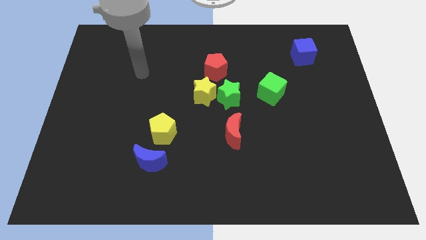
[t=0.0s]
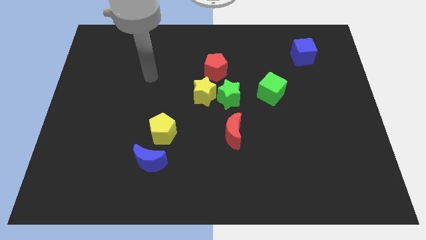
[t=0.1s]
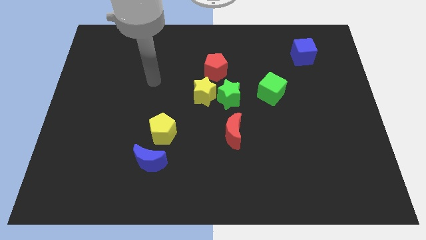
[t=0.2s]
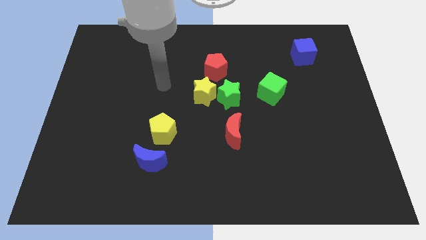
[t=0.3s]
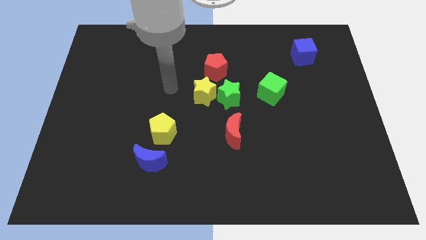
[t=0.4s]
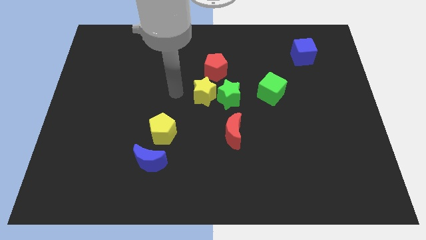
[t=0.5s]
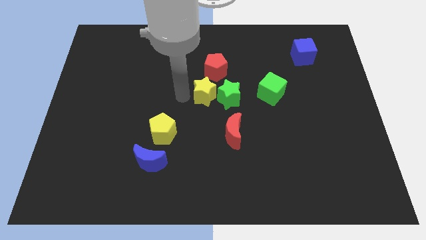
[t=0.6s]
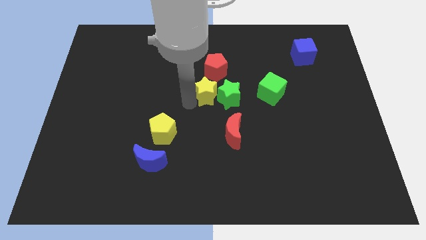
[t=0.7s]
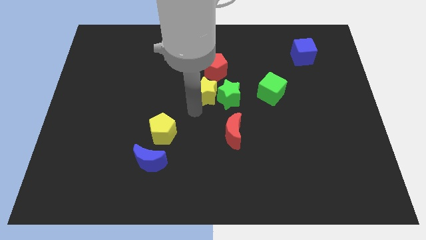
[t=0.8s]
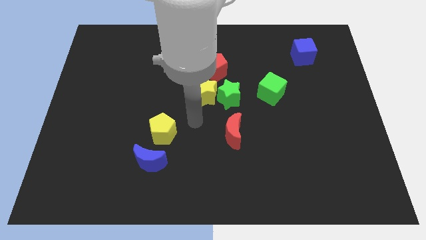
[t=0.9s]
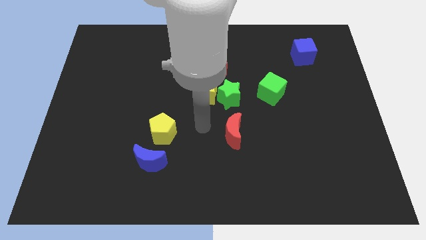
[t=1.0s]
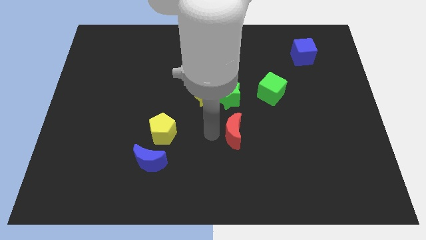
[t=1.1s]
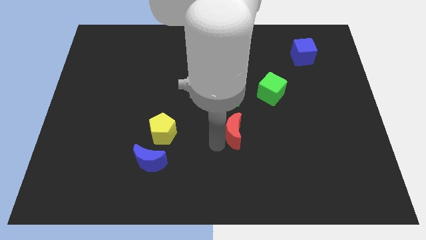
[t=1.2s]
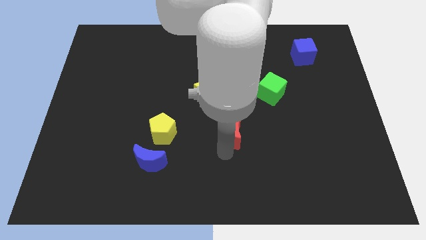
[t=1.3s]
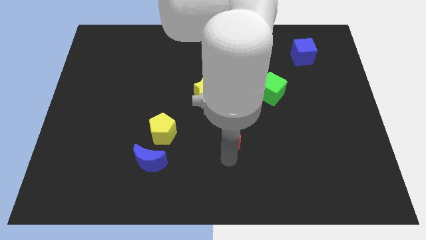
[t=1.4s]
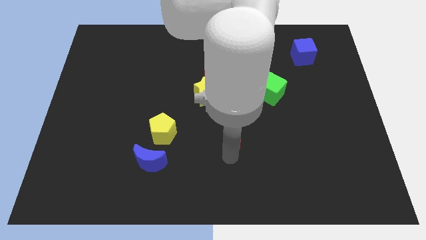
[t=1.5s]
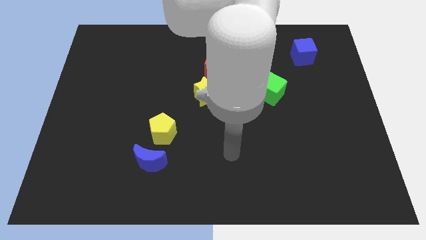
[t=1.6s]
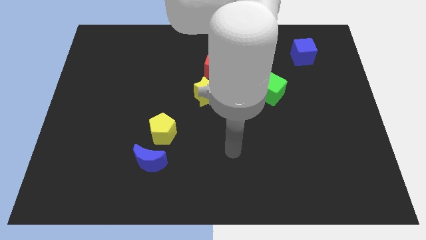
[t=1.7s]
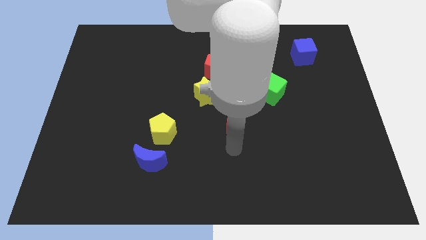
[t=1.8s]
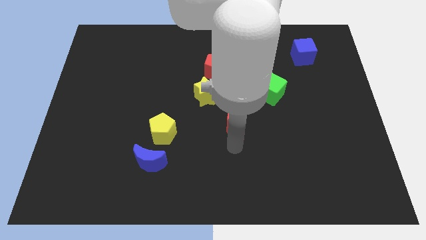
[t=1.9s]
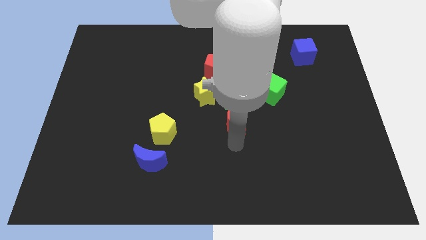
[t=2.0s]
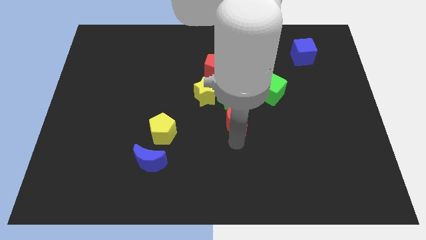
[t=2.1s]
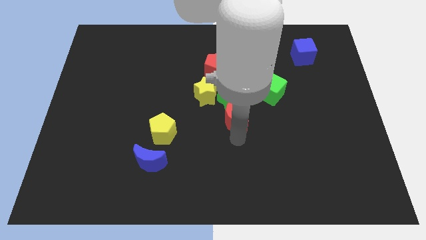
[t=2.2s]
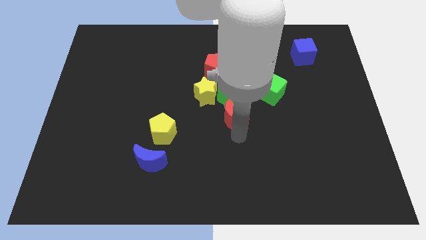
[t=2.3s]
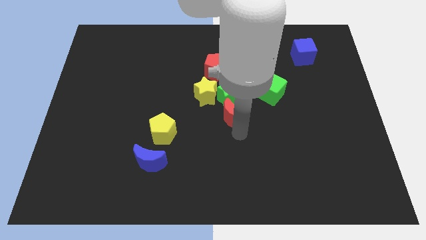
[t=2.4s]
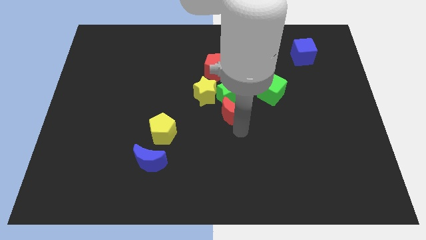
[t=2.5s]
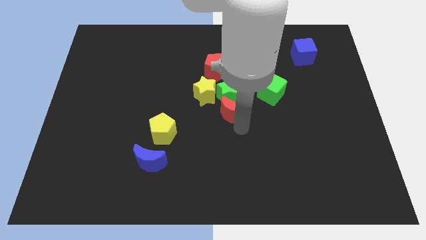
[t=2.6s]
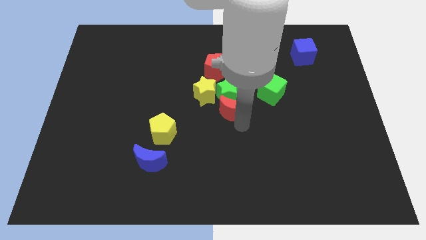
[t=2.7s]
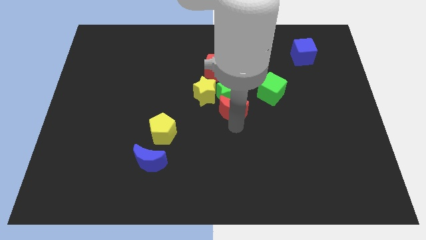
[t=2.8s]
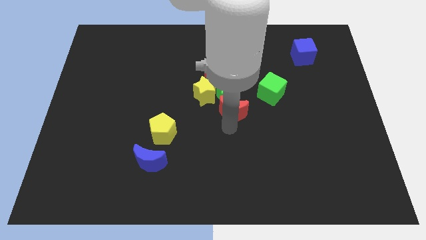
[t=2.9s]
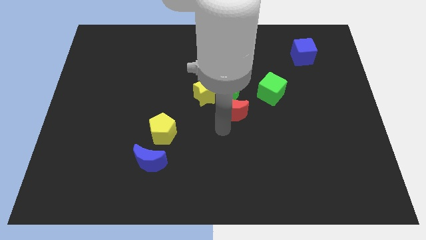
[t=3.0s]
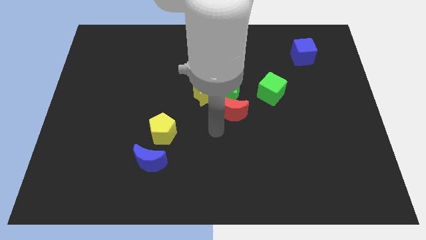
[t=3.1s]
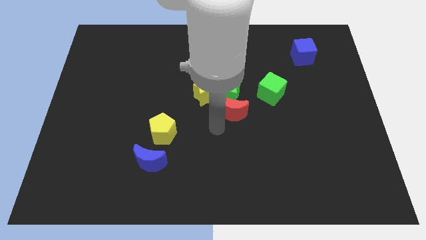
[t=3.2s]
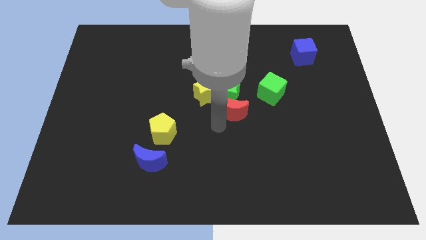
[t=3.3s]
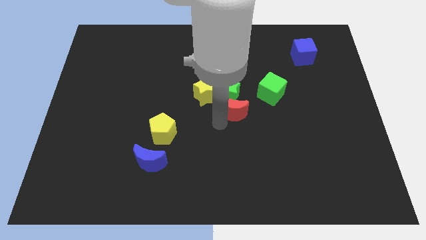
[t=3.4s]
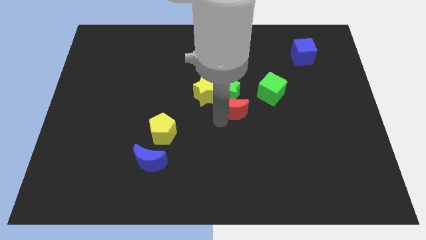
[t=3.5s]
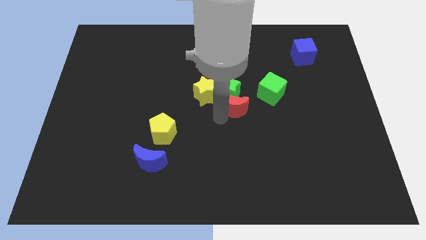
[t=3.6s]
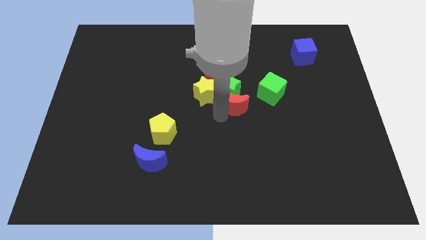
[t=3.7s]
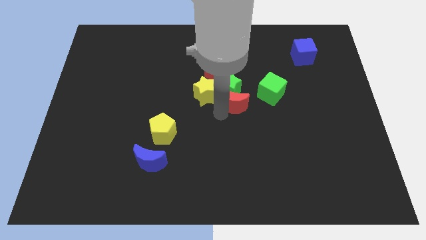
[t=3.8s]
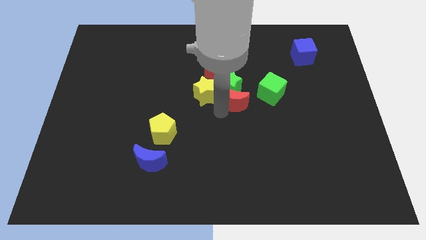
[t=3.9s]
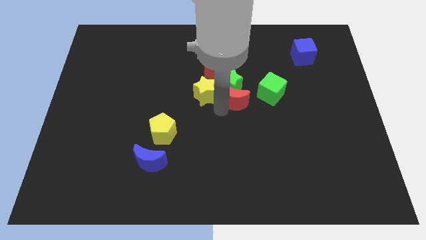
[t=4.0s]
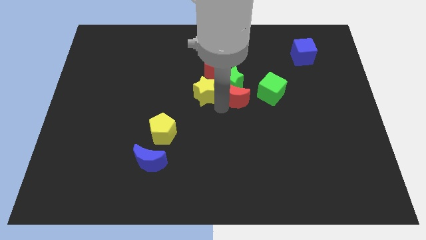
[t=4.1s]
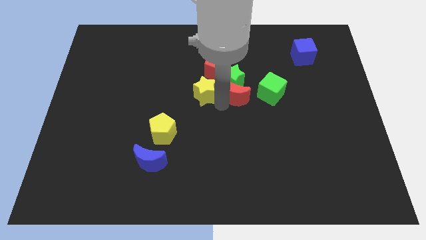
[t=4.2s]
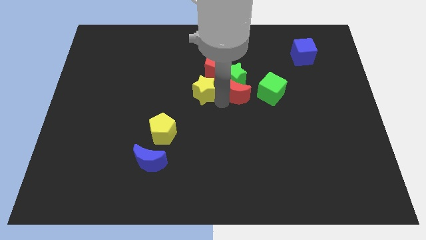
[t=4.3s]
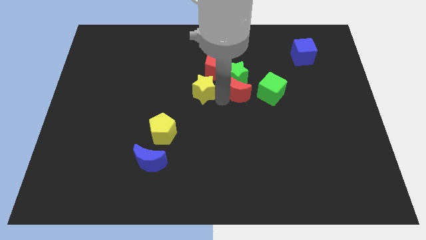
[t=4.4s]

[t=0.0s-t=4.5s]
push the red moon a little diagonally upwards and right

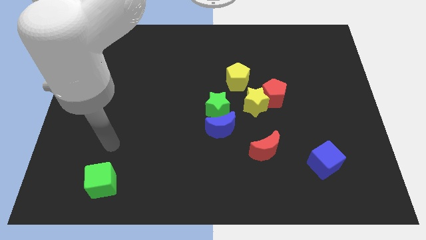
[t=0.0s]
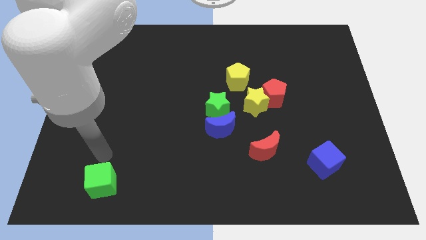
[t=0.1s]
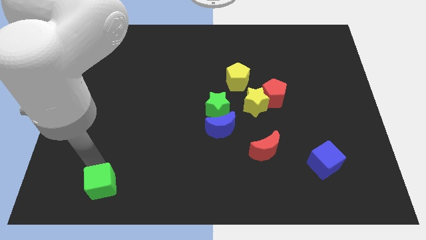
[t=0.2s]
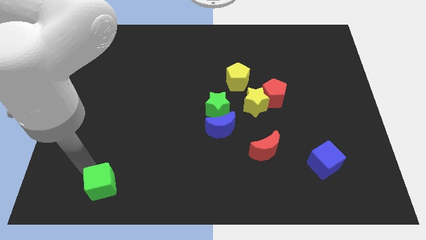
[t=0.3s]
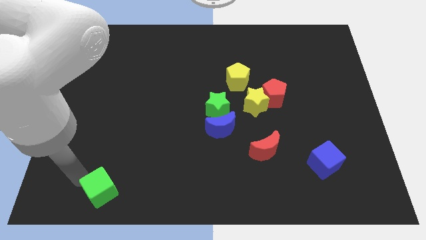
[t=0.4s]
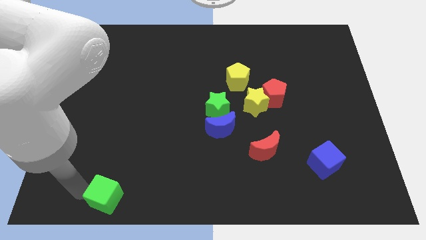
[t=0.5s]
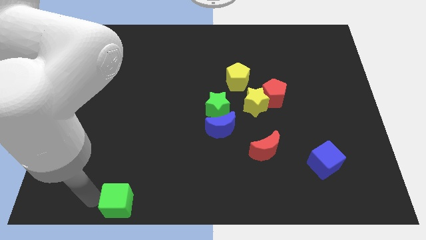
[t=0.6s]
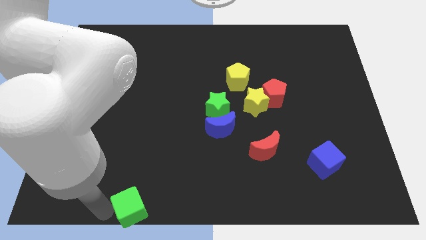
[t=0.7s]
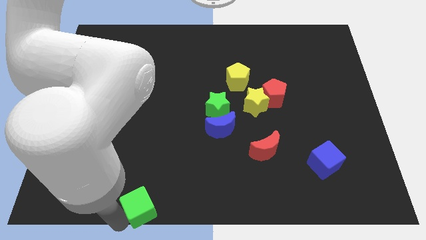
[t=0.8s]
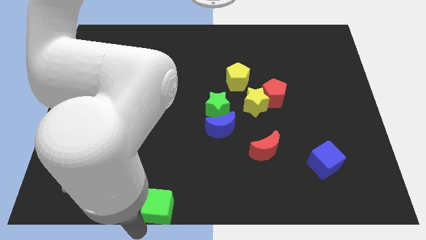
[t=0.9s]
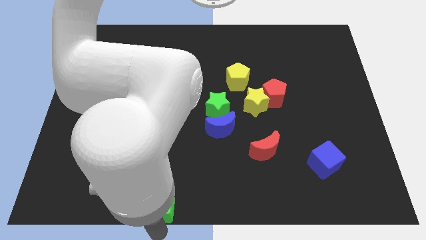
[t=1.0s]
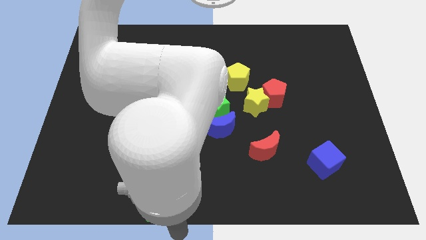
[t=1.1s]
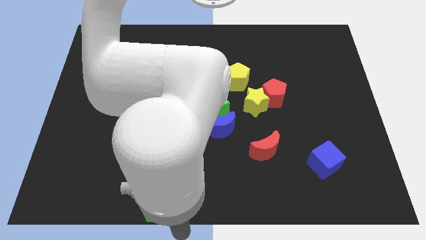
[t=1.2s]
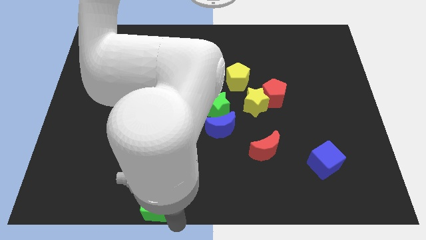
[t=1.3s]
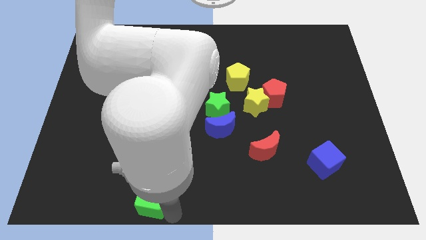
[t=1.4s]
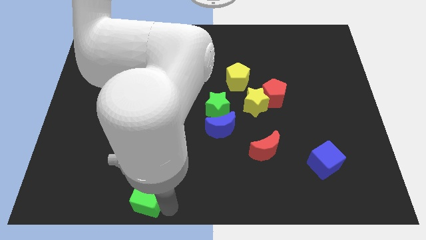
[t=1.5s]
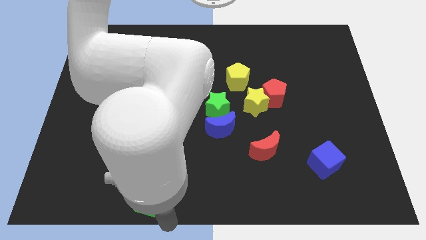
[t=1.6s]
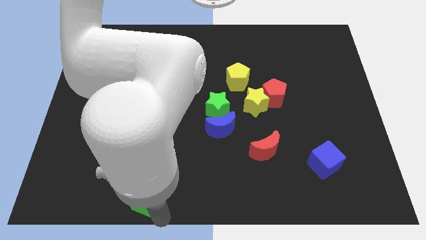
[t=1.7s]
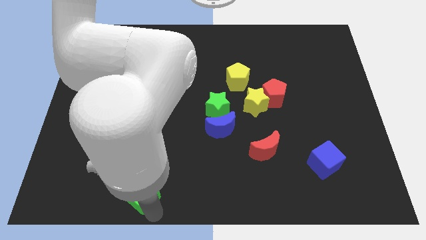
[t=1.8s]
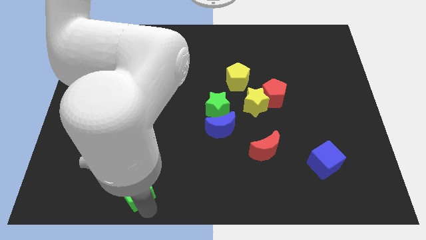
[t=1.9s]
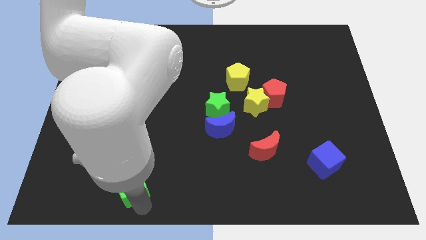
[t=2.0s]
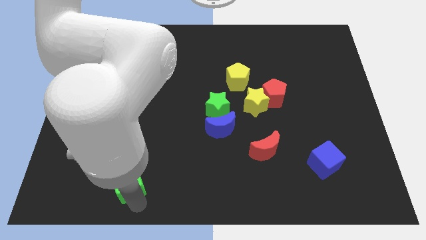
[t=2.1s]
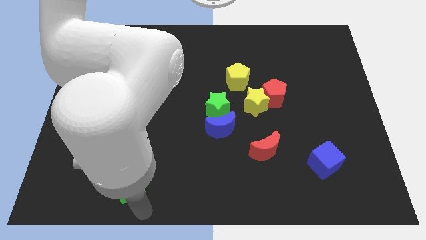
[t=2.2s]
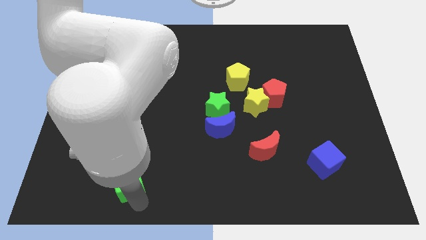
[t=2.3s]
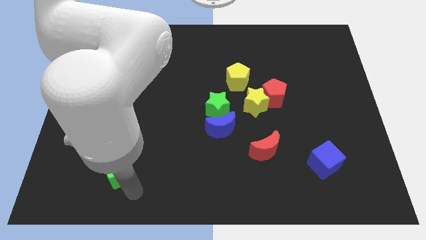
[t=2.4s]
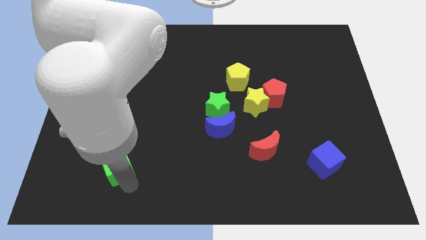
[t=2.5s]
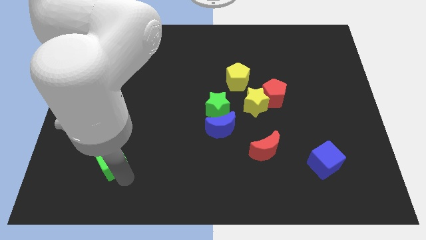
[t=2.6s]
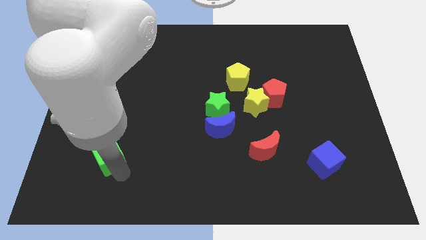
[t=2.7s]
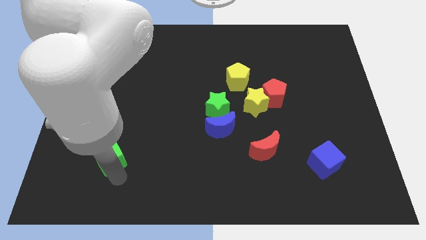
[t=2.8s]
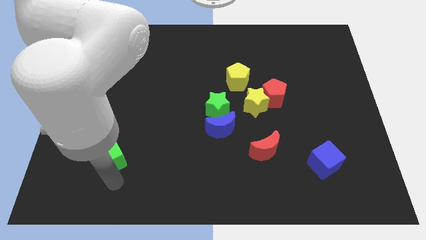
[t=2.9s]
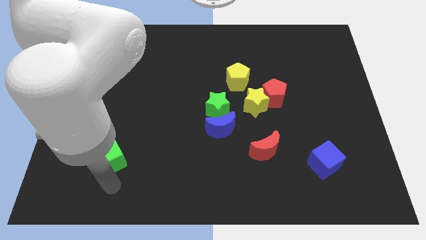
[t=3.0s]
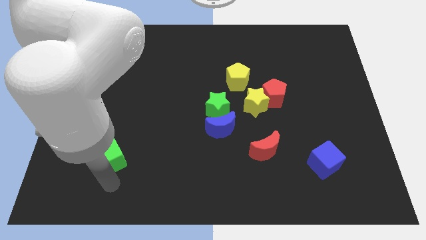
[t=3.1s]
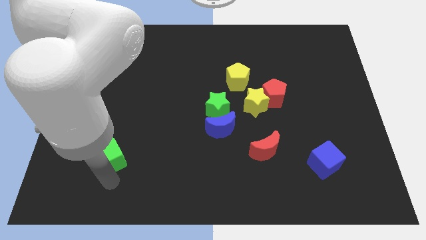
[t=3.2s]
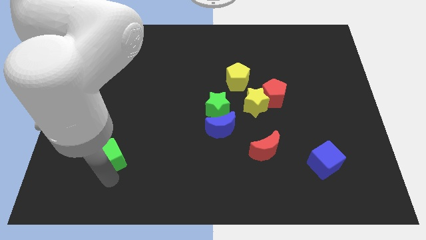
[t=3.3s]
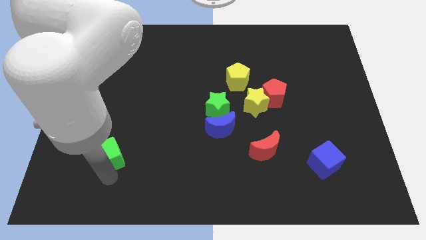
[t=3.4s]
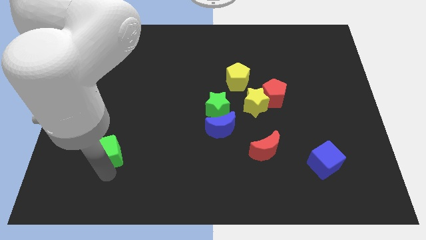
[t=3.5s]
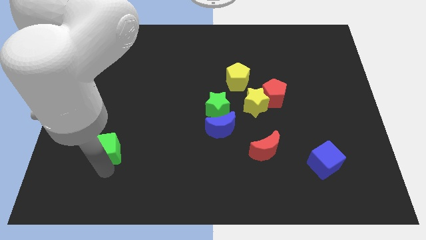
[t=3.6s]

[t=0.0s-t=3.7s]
slightly push the green cube upwards
